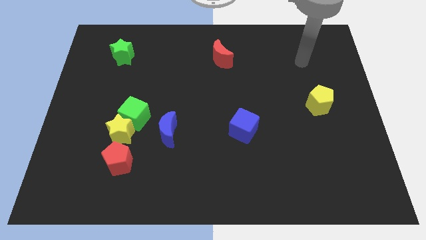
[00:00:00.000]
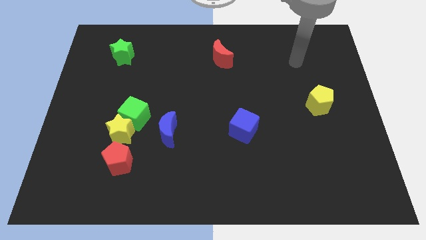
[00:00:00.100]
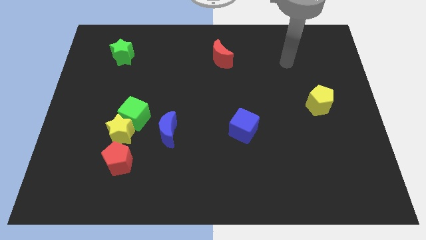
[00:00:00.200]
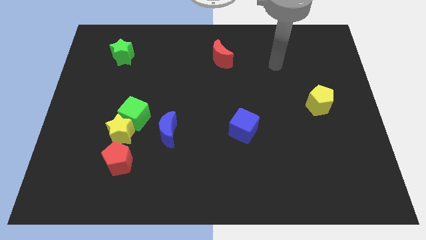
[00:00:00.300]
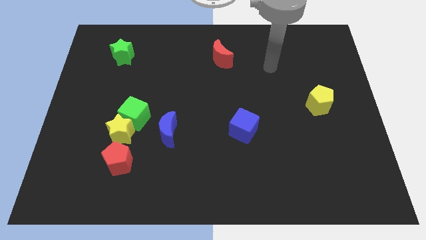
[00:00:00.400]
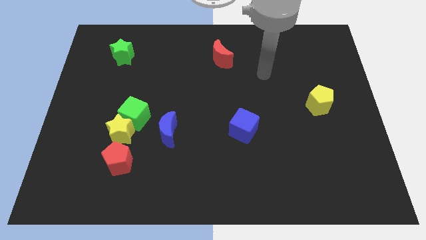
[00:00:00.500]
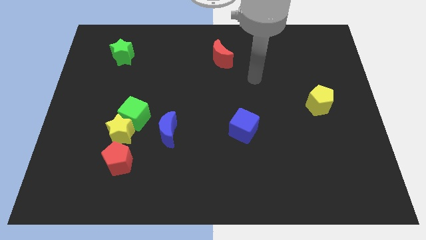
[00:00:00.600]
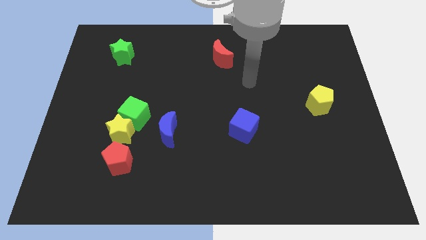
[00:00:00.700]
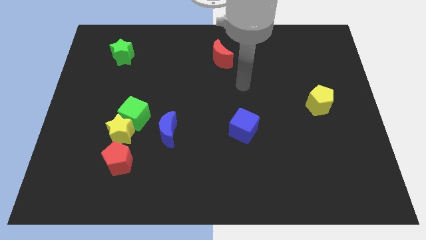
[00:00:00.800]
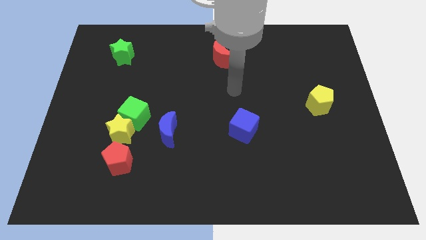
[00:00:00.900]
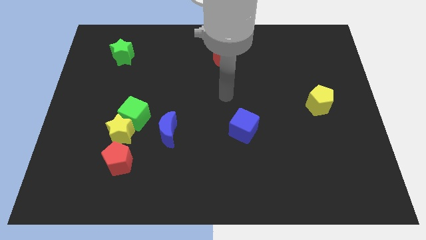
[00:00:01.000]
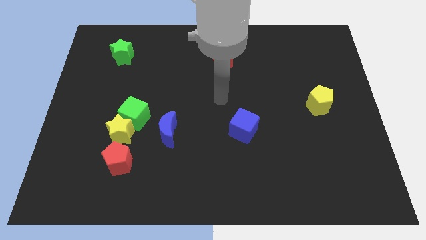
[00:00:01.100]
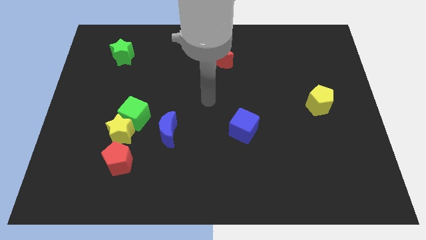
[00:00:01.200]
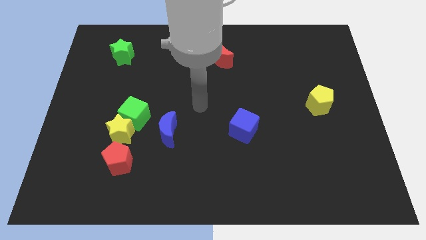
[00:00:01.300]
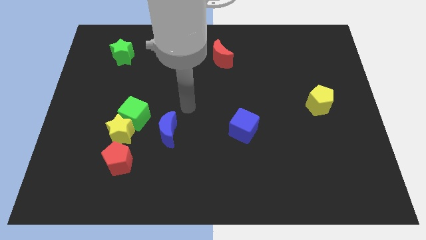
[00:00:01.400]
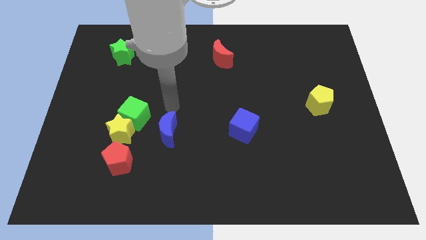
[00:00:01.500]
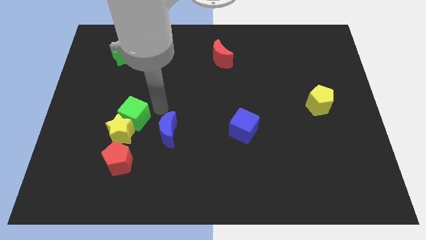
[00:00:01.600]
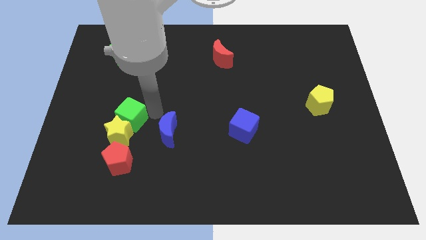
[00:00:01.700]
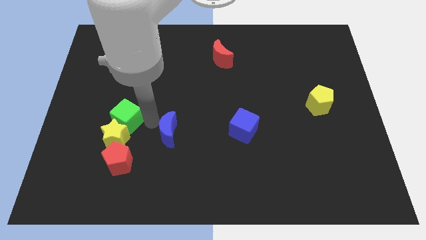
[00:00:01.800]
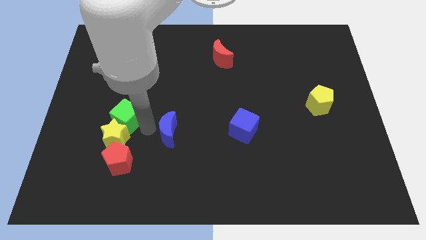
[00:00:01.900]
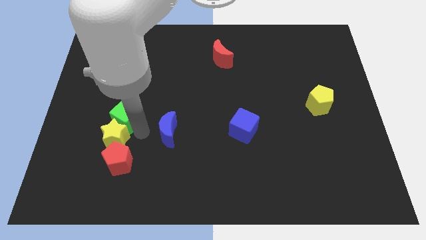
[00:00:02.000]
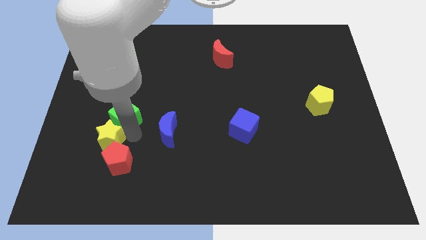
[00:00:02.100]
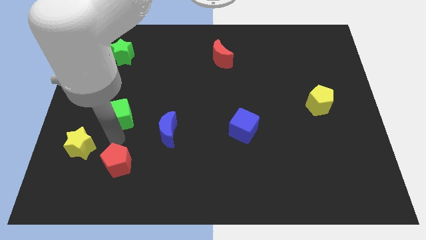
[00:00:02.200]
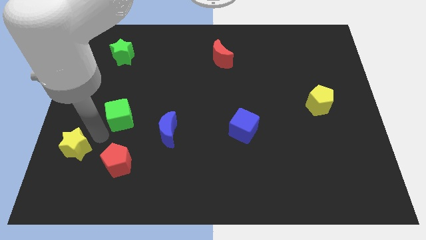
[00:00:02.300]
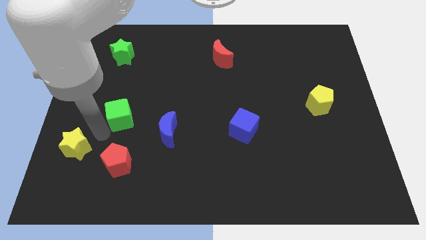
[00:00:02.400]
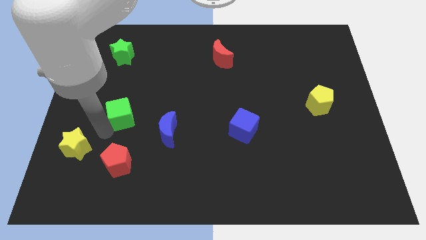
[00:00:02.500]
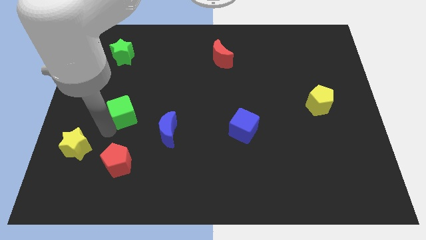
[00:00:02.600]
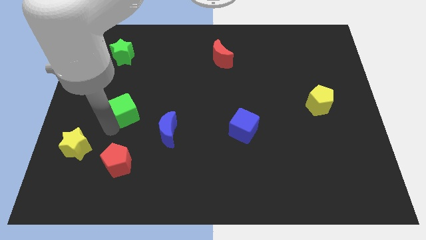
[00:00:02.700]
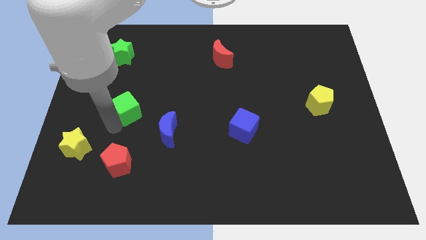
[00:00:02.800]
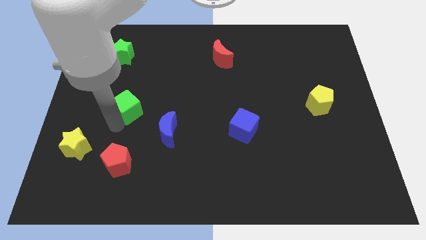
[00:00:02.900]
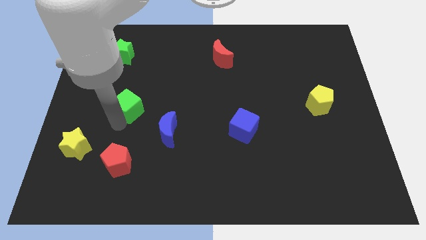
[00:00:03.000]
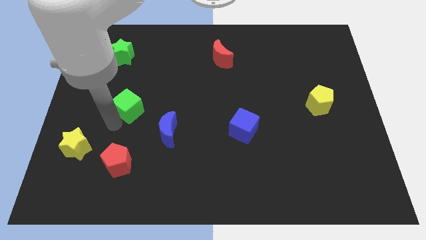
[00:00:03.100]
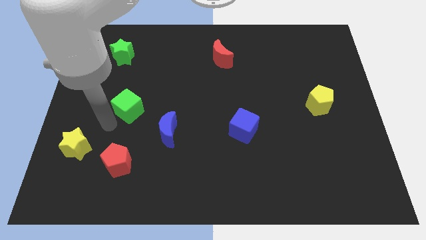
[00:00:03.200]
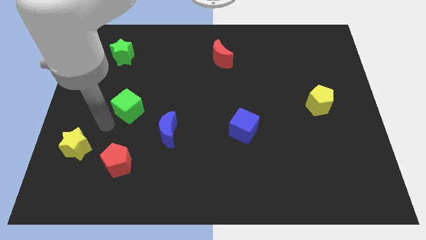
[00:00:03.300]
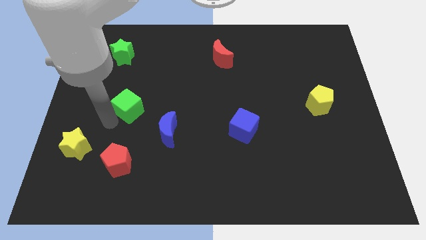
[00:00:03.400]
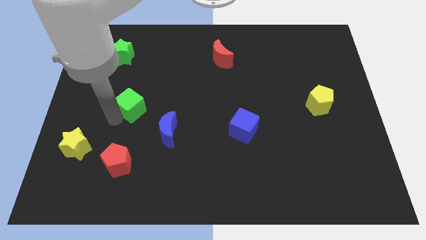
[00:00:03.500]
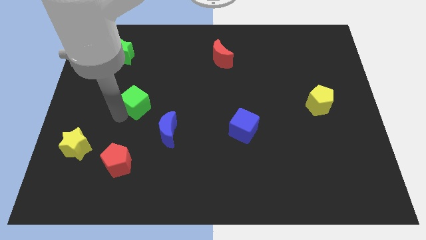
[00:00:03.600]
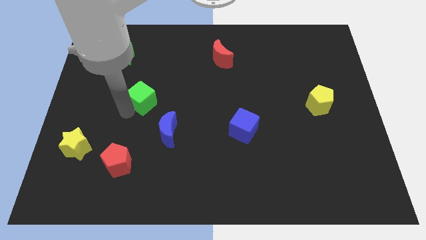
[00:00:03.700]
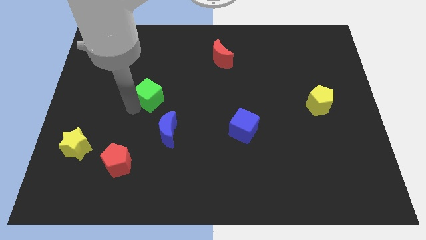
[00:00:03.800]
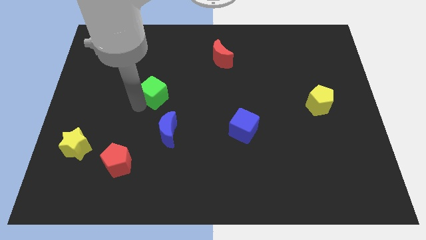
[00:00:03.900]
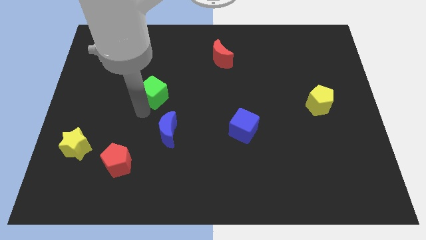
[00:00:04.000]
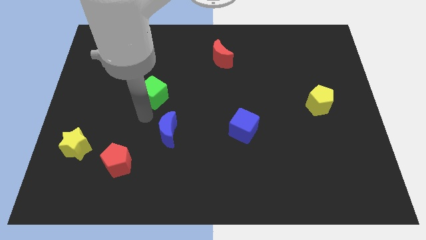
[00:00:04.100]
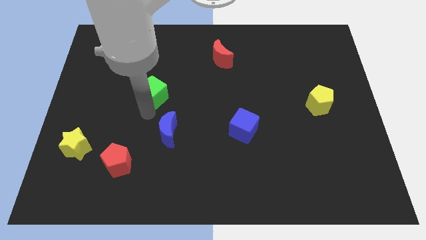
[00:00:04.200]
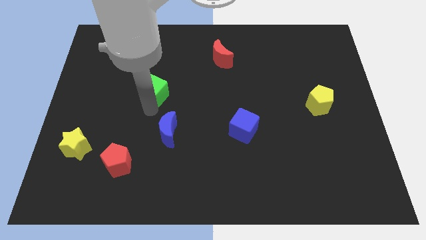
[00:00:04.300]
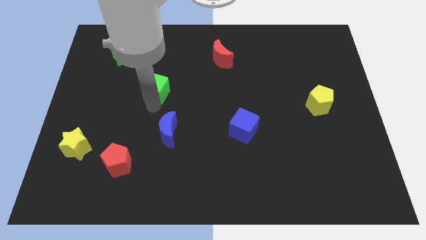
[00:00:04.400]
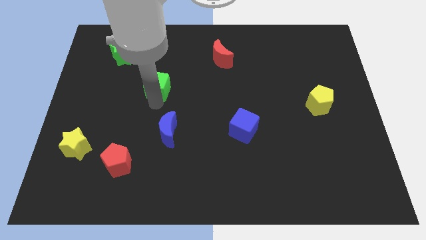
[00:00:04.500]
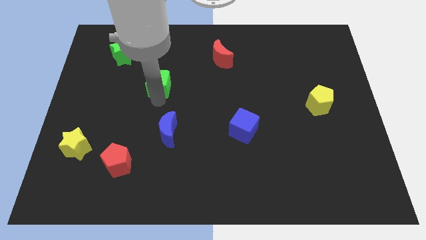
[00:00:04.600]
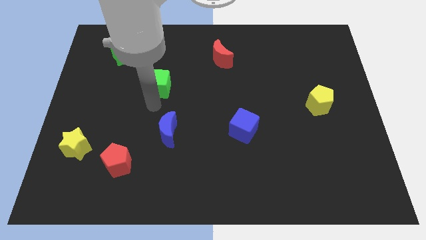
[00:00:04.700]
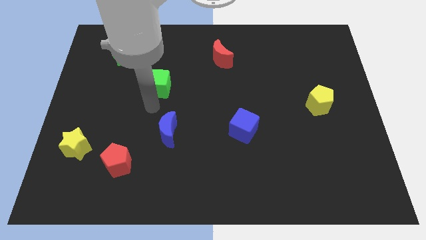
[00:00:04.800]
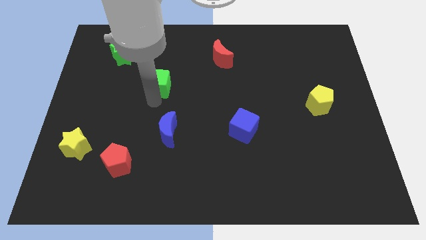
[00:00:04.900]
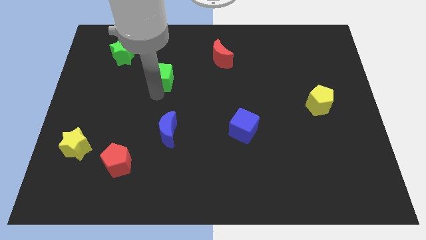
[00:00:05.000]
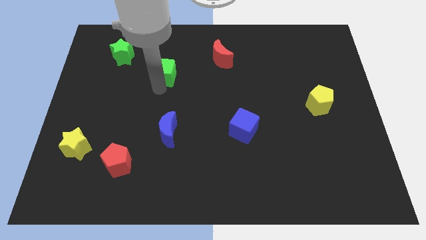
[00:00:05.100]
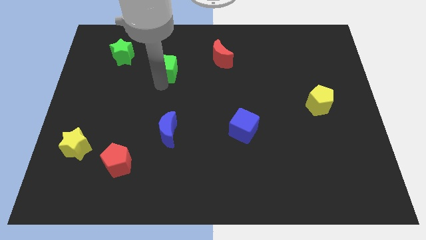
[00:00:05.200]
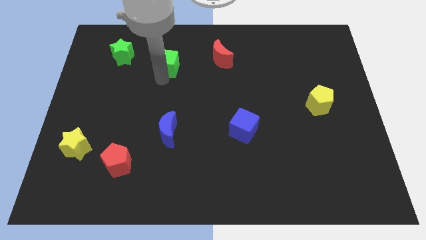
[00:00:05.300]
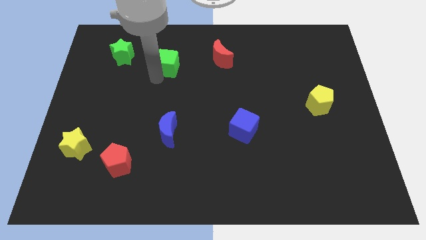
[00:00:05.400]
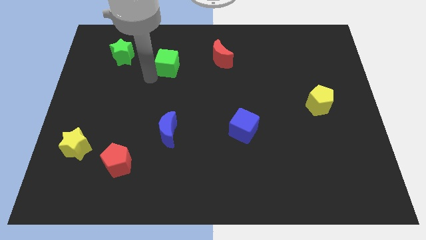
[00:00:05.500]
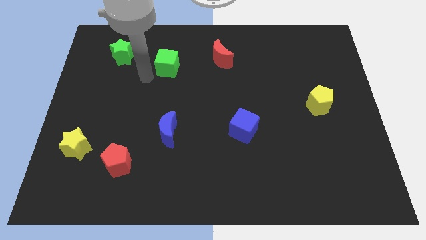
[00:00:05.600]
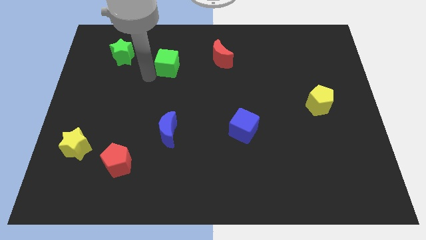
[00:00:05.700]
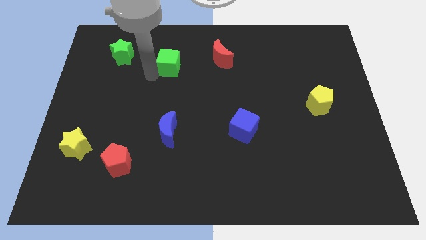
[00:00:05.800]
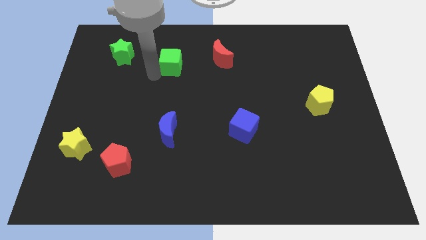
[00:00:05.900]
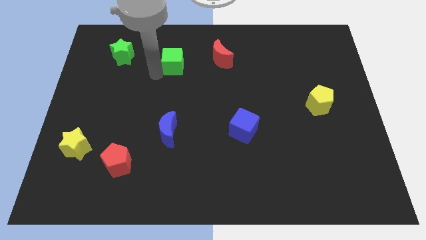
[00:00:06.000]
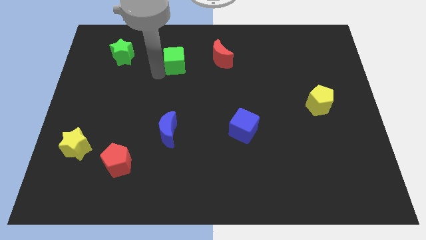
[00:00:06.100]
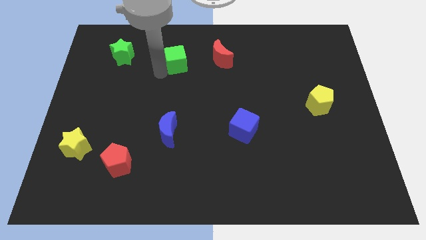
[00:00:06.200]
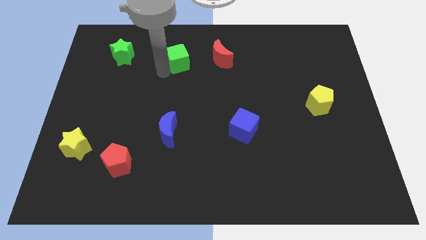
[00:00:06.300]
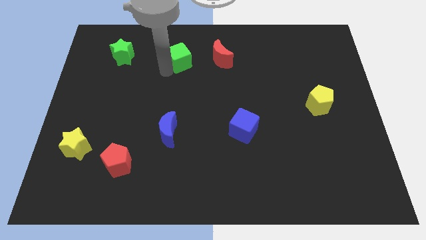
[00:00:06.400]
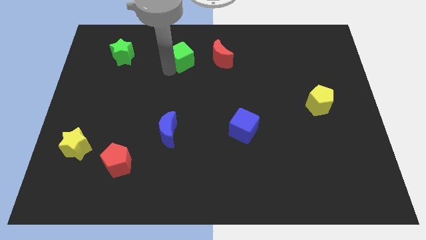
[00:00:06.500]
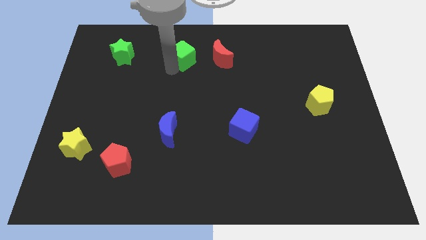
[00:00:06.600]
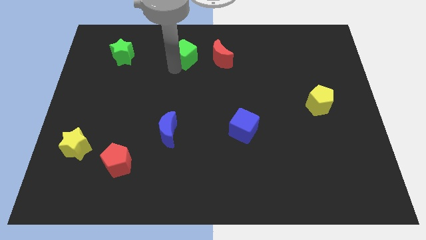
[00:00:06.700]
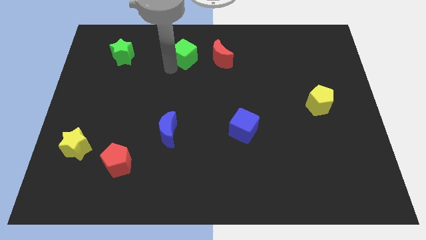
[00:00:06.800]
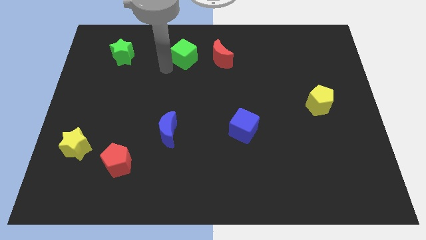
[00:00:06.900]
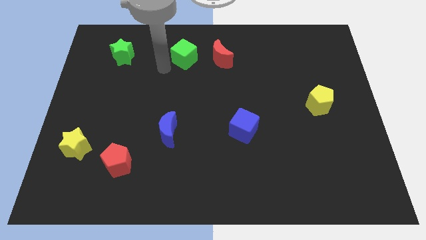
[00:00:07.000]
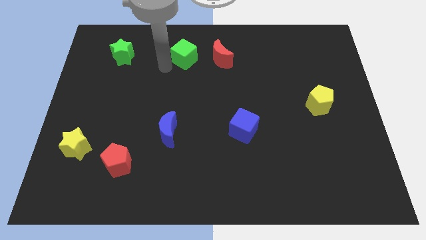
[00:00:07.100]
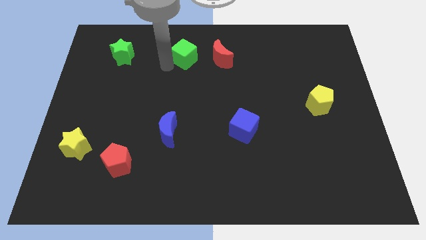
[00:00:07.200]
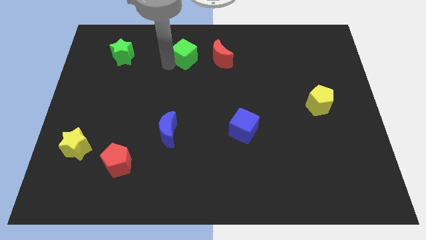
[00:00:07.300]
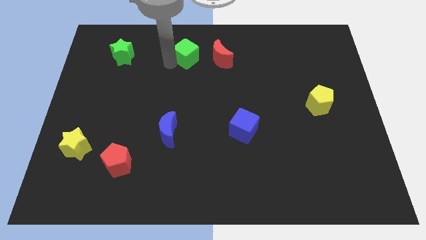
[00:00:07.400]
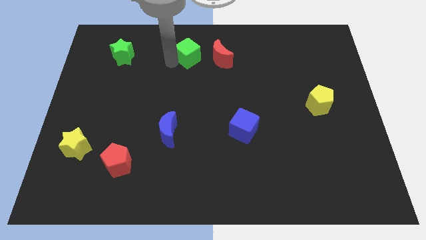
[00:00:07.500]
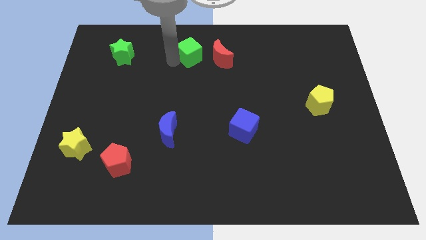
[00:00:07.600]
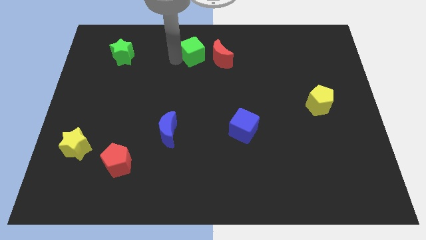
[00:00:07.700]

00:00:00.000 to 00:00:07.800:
push the green cube to the towards your base
